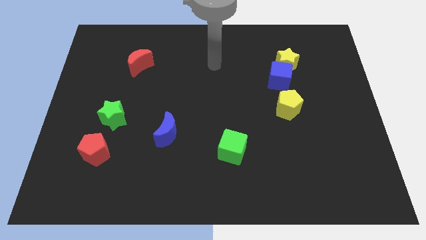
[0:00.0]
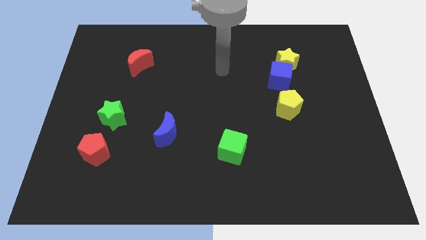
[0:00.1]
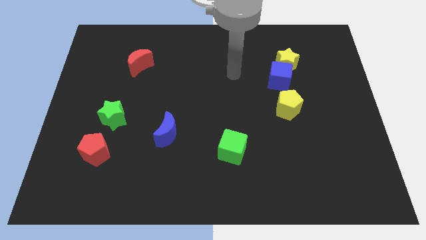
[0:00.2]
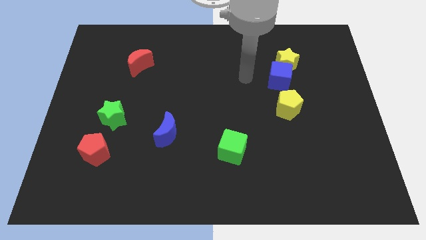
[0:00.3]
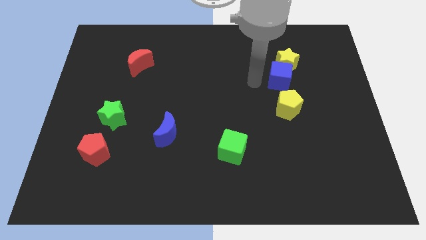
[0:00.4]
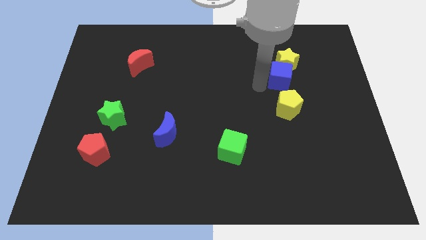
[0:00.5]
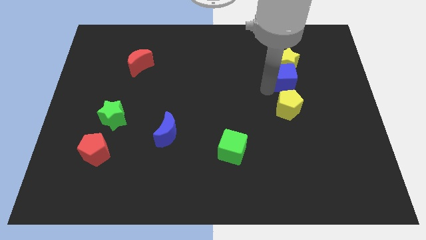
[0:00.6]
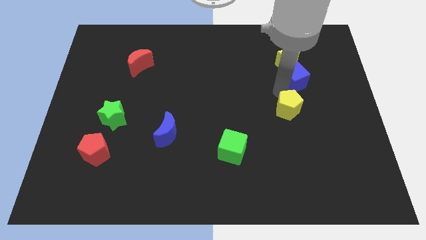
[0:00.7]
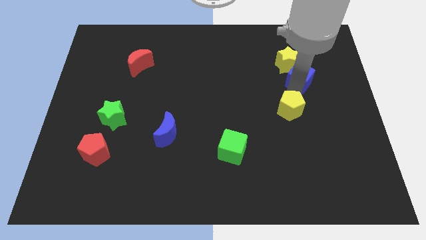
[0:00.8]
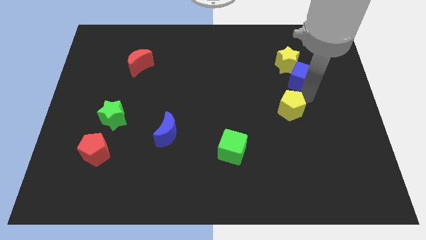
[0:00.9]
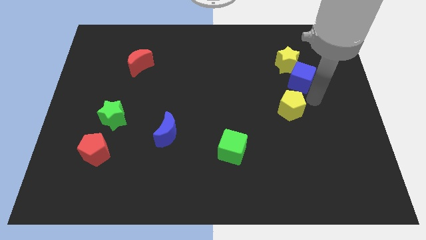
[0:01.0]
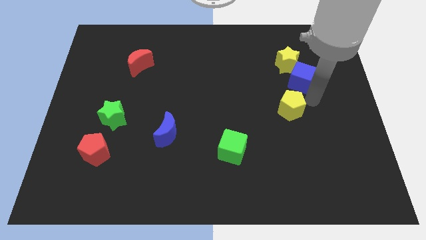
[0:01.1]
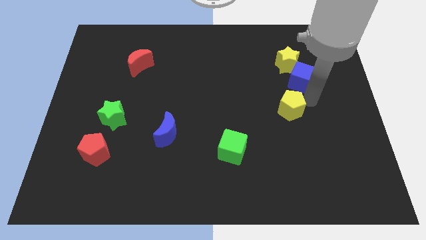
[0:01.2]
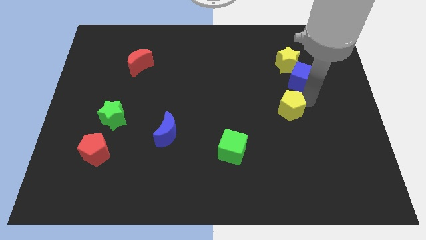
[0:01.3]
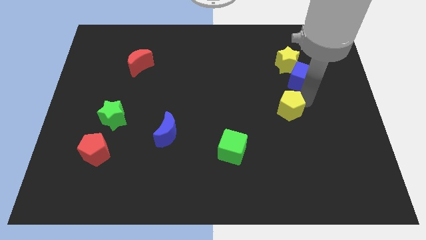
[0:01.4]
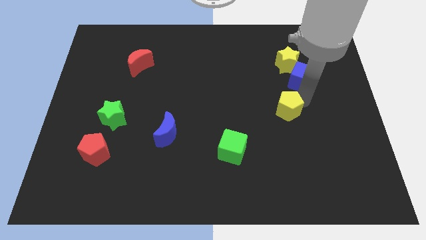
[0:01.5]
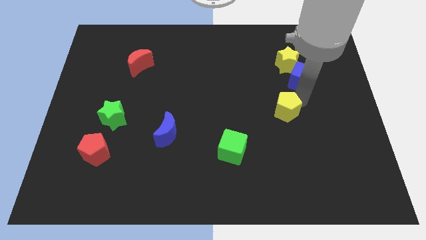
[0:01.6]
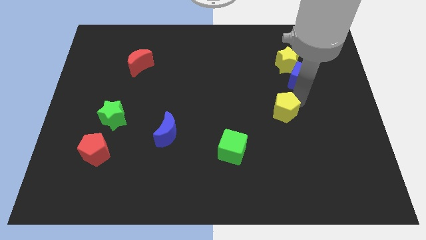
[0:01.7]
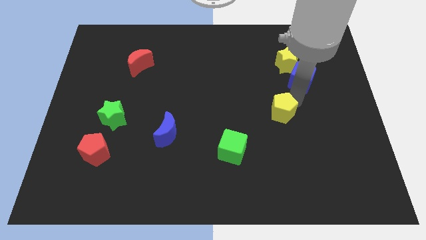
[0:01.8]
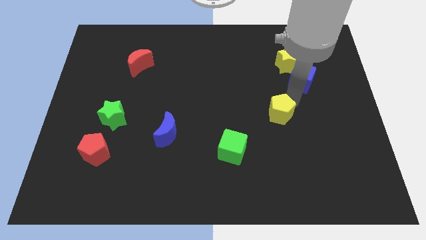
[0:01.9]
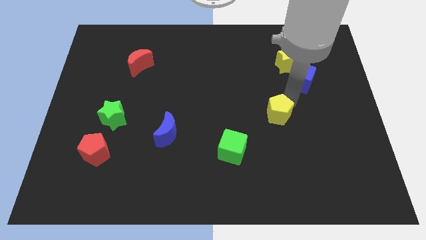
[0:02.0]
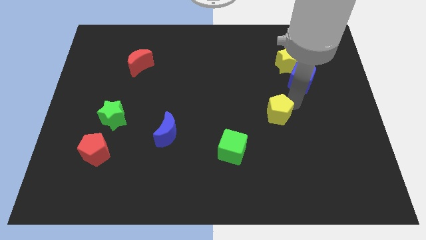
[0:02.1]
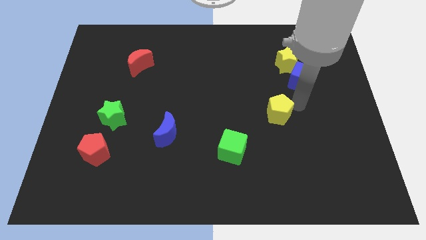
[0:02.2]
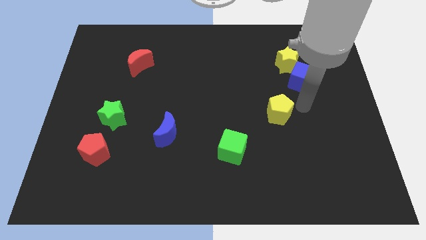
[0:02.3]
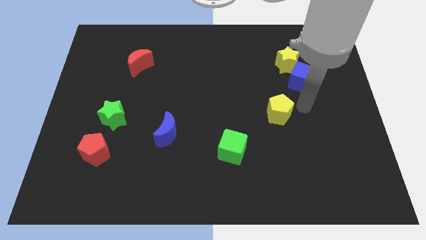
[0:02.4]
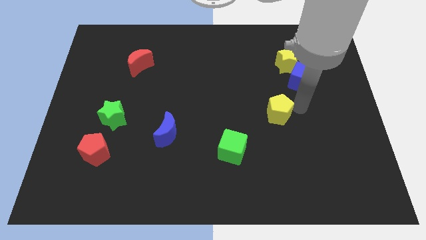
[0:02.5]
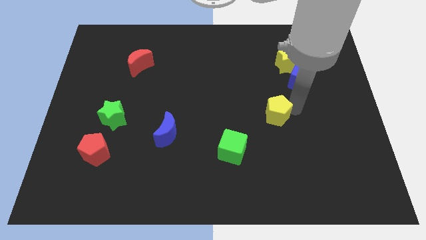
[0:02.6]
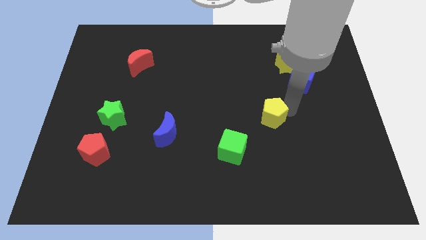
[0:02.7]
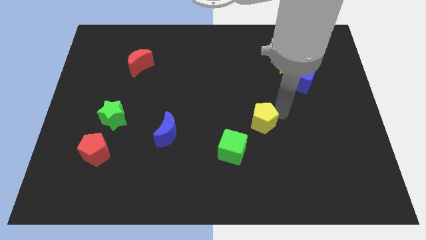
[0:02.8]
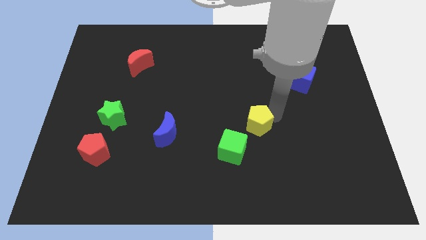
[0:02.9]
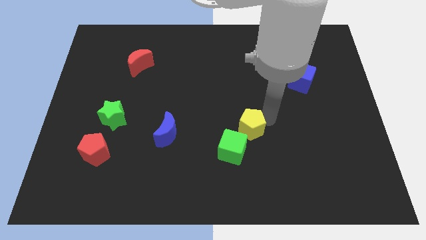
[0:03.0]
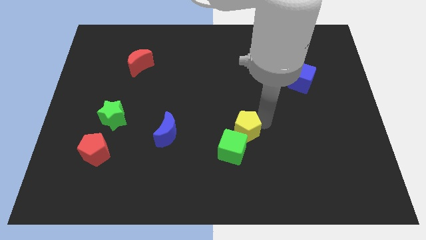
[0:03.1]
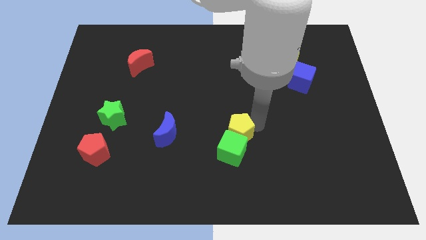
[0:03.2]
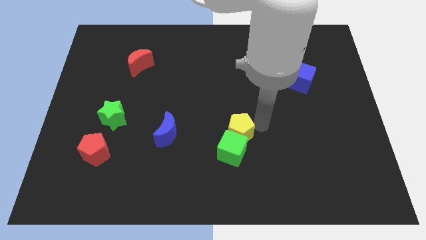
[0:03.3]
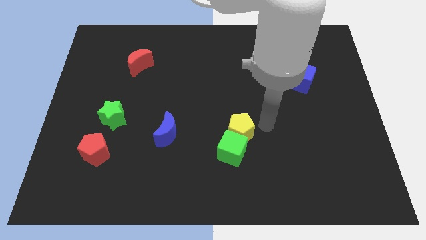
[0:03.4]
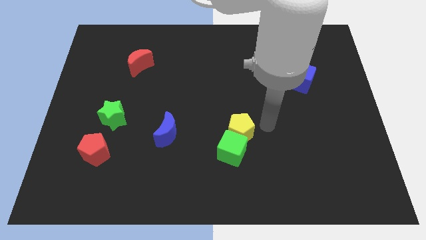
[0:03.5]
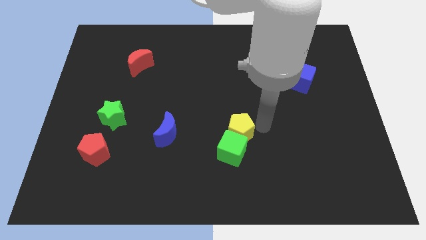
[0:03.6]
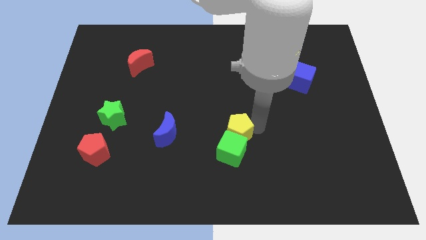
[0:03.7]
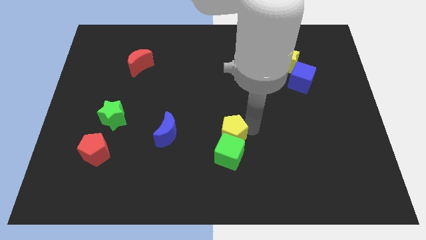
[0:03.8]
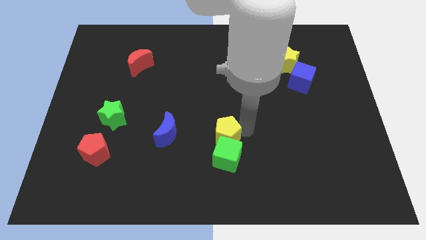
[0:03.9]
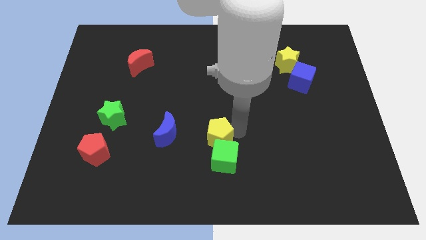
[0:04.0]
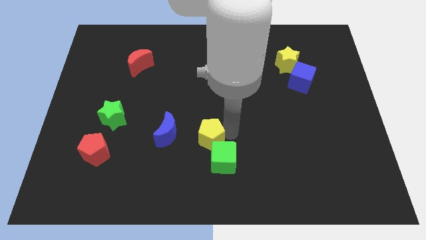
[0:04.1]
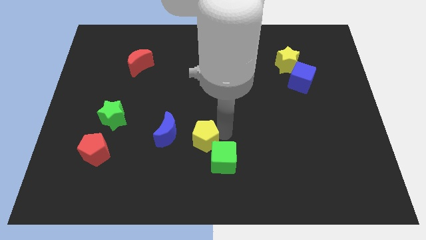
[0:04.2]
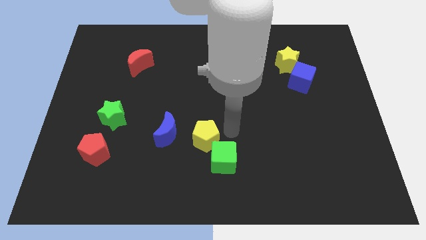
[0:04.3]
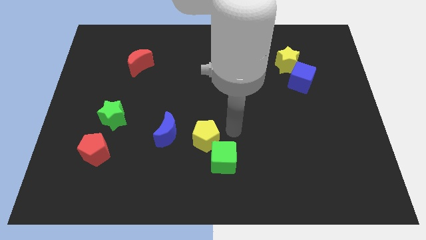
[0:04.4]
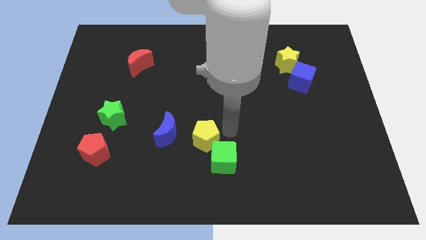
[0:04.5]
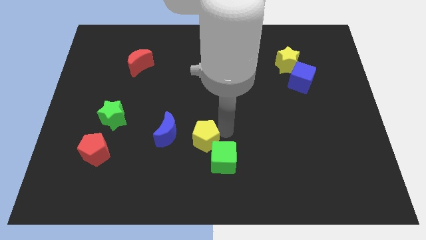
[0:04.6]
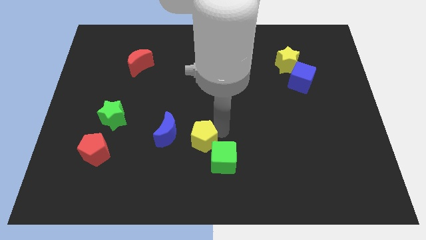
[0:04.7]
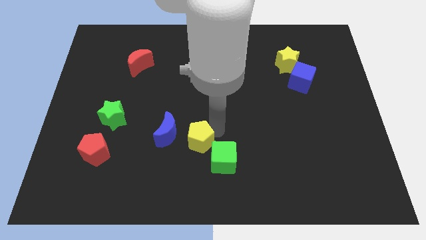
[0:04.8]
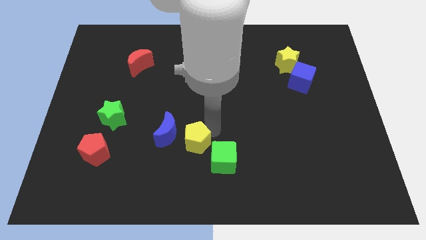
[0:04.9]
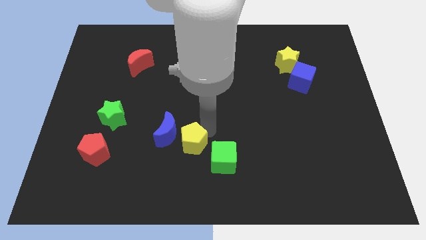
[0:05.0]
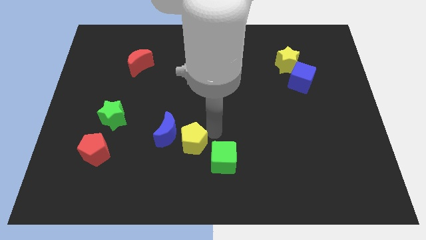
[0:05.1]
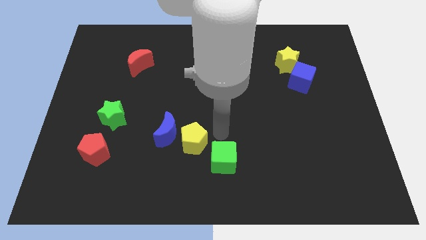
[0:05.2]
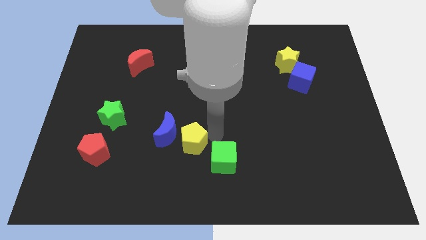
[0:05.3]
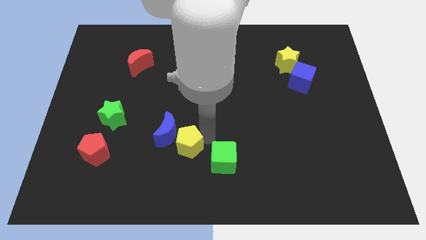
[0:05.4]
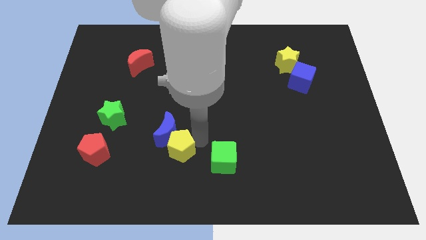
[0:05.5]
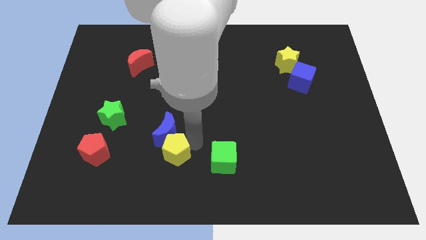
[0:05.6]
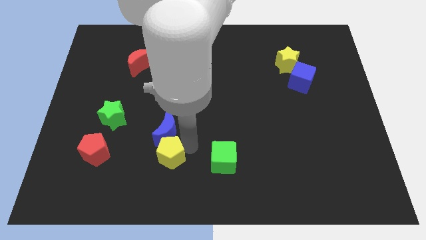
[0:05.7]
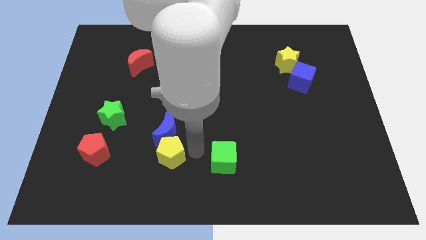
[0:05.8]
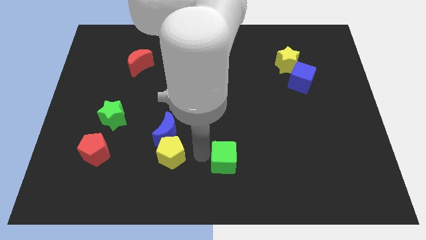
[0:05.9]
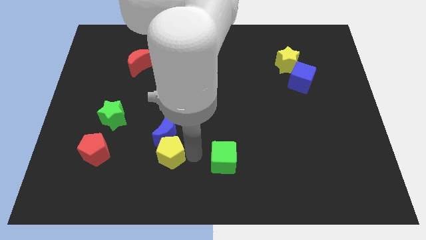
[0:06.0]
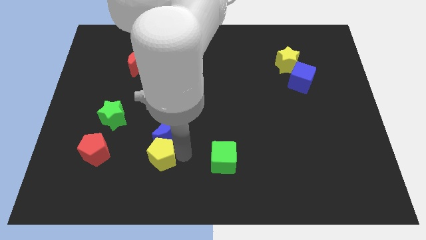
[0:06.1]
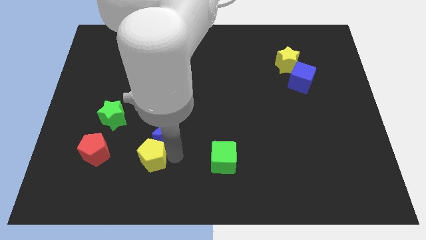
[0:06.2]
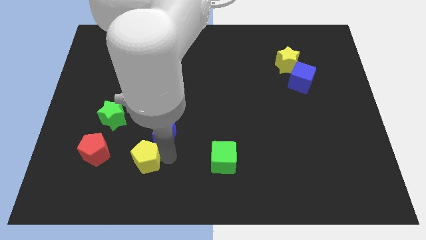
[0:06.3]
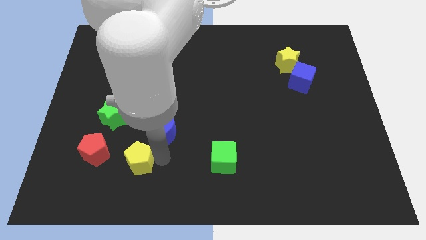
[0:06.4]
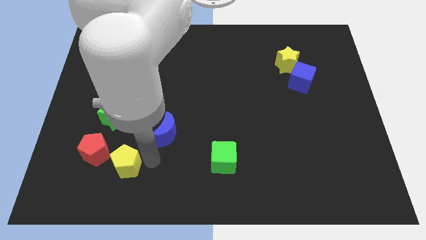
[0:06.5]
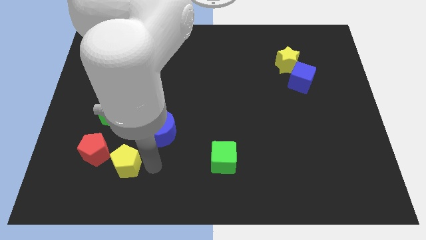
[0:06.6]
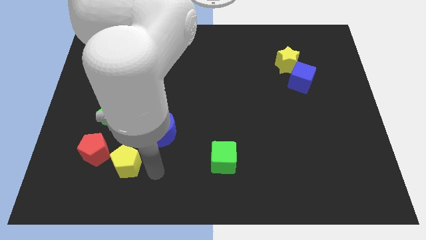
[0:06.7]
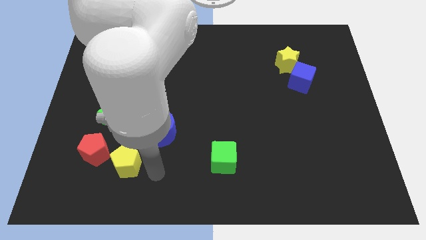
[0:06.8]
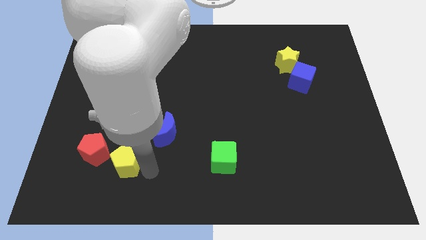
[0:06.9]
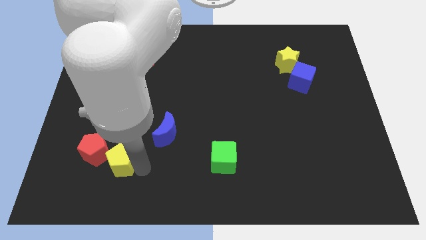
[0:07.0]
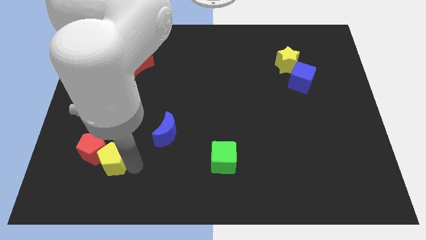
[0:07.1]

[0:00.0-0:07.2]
push the yellow pentagon to the red pentagon
